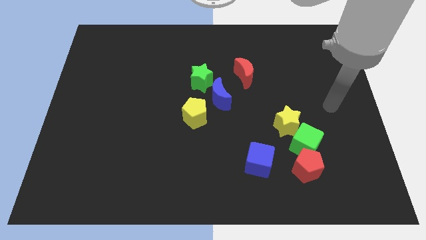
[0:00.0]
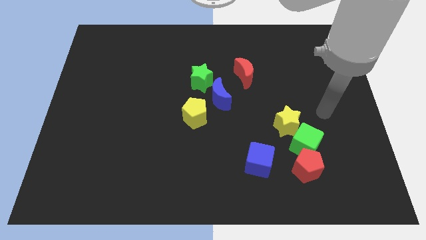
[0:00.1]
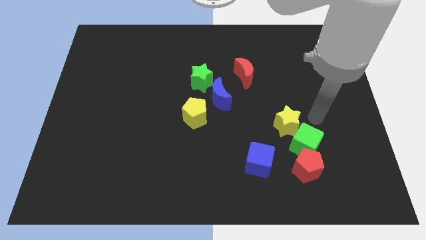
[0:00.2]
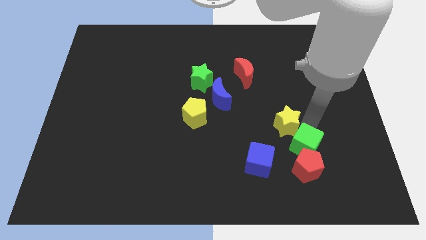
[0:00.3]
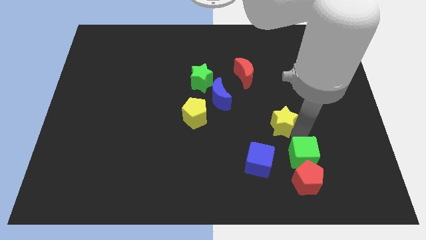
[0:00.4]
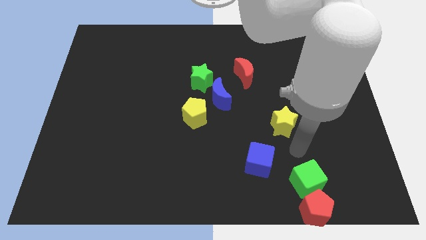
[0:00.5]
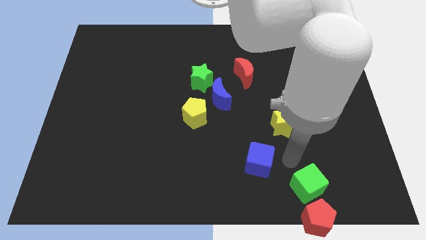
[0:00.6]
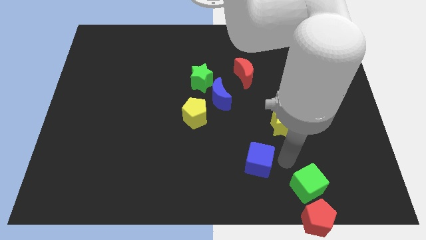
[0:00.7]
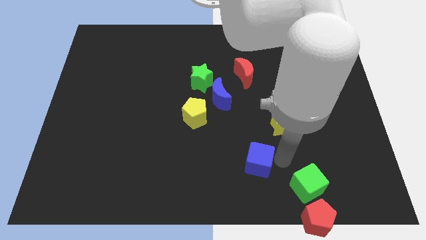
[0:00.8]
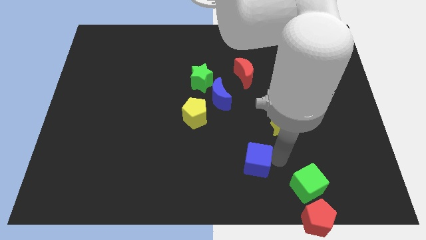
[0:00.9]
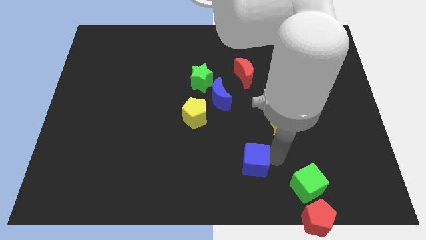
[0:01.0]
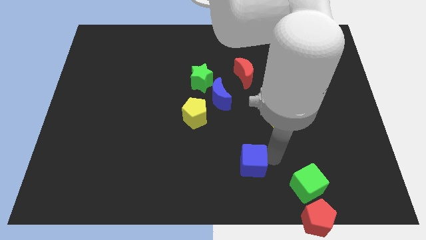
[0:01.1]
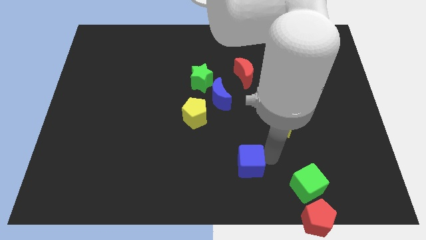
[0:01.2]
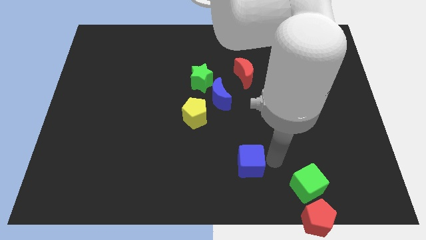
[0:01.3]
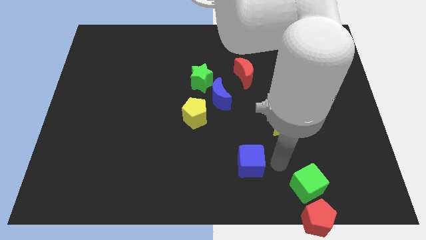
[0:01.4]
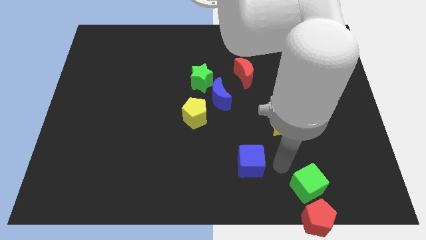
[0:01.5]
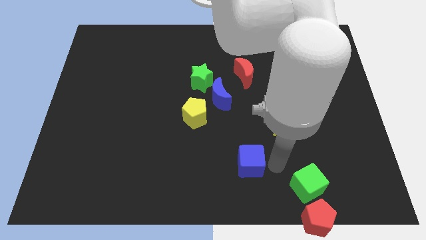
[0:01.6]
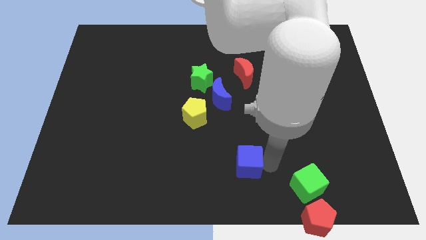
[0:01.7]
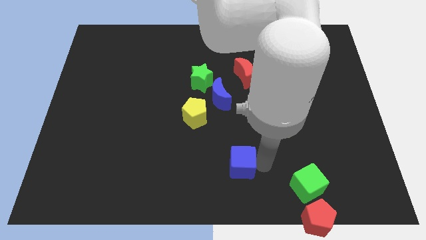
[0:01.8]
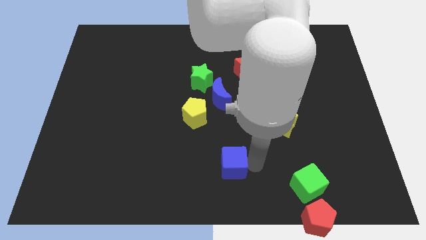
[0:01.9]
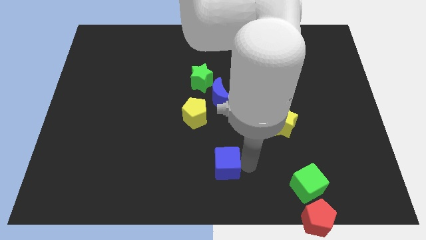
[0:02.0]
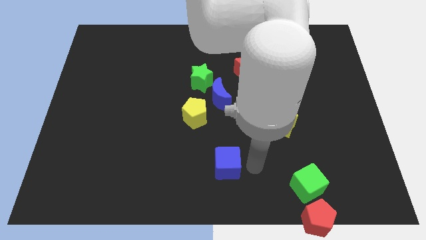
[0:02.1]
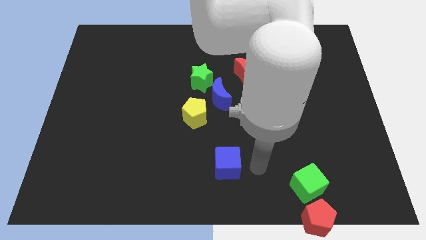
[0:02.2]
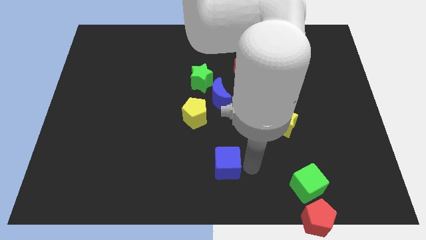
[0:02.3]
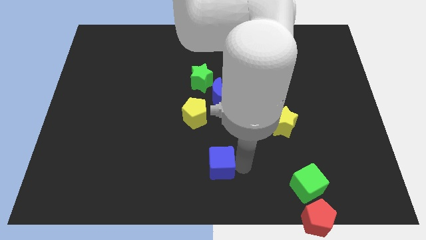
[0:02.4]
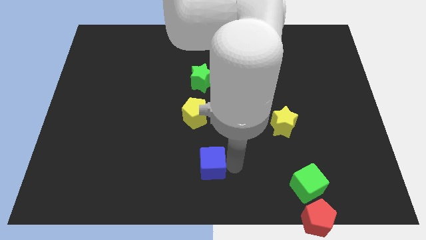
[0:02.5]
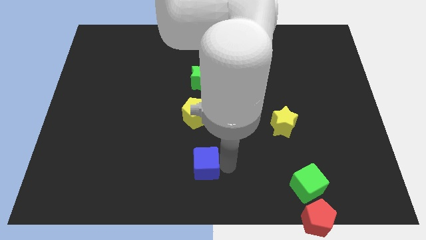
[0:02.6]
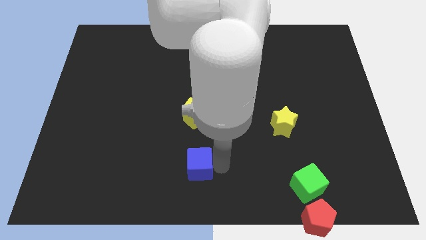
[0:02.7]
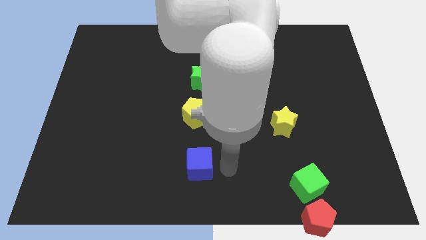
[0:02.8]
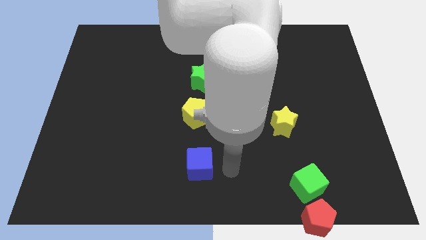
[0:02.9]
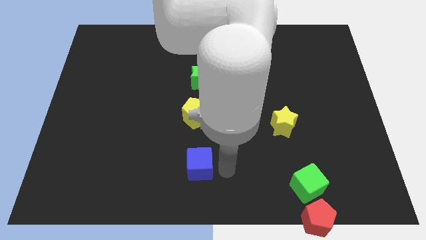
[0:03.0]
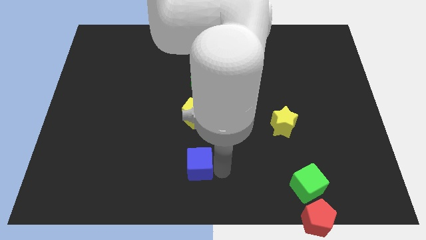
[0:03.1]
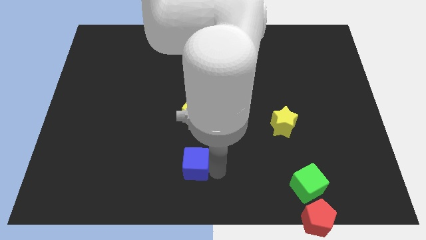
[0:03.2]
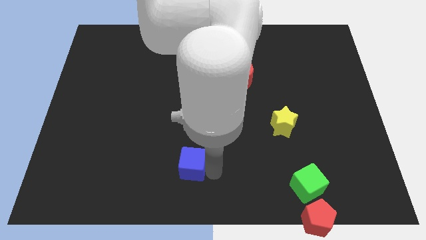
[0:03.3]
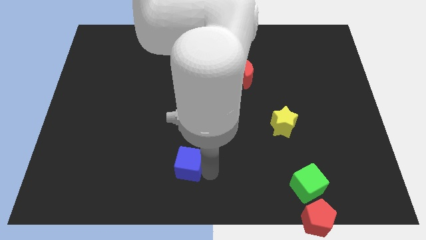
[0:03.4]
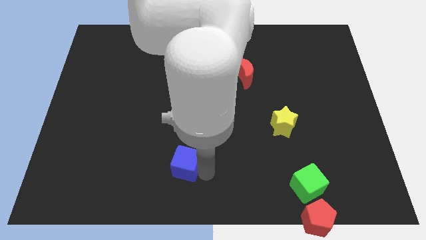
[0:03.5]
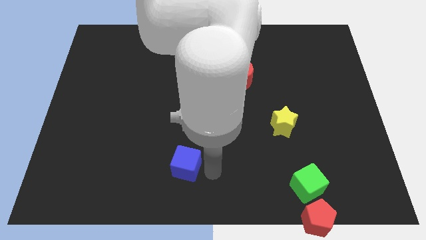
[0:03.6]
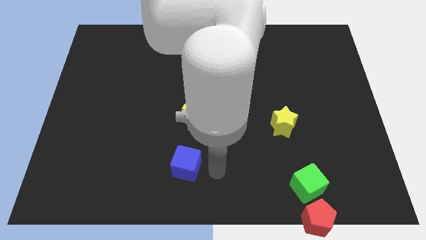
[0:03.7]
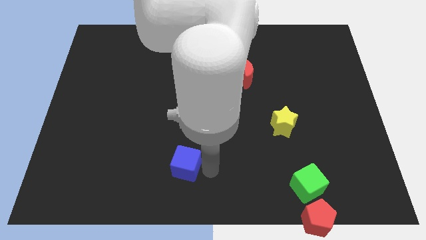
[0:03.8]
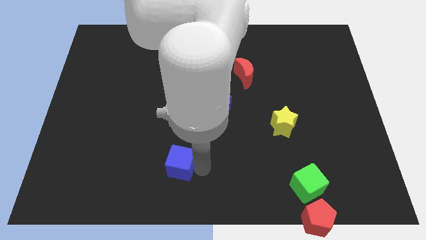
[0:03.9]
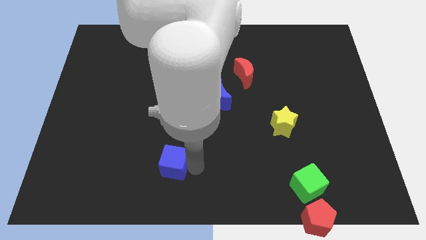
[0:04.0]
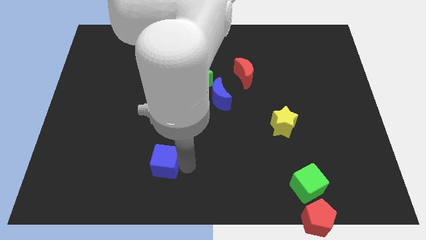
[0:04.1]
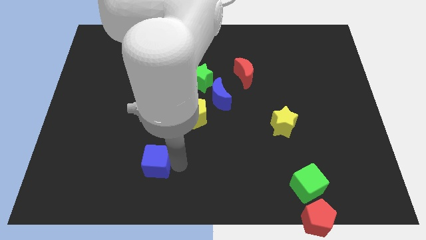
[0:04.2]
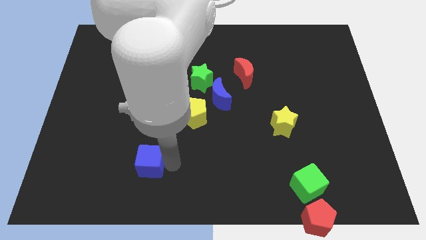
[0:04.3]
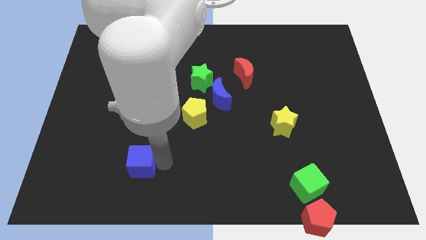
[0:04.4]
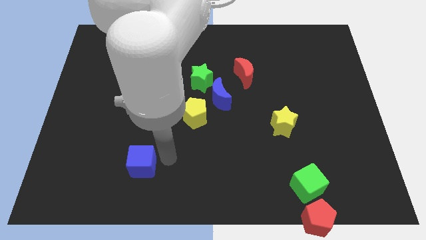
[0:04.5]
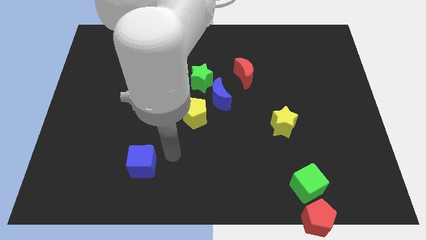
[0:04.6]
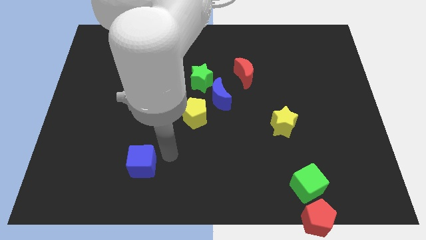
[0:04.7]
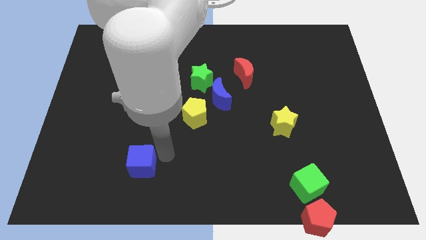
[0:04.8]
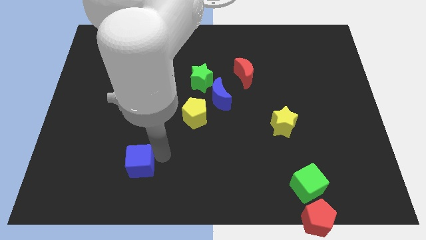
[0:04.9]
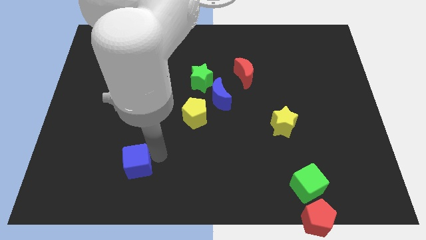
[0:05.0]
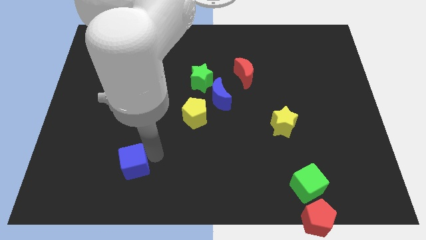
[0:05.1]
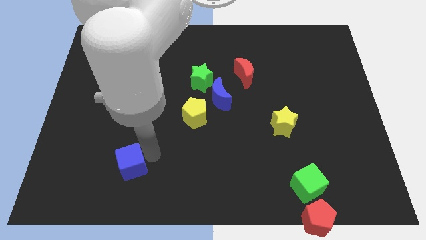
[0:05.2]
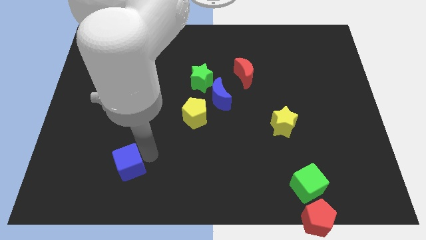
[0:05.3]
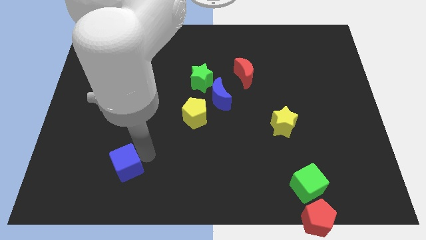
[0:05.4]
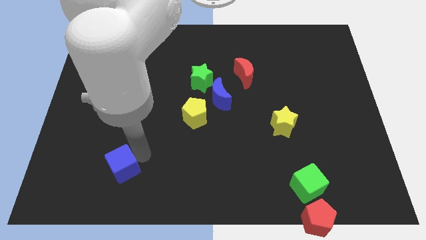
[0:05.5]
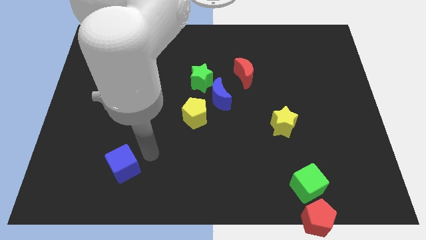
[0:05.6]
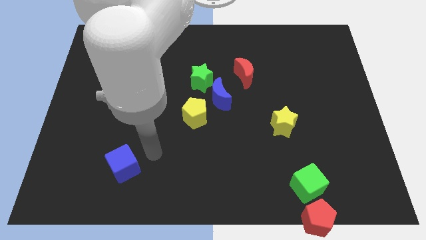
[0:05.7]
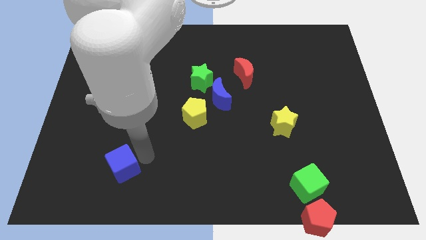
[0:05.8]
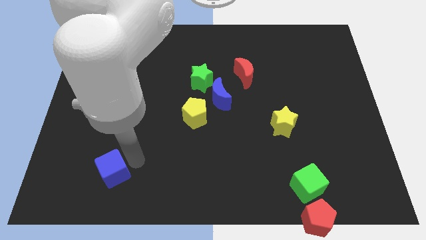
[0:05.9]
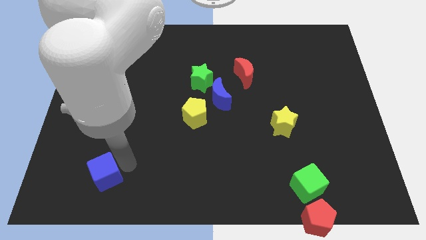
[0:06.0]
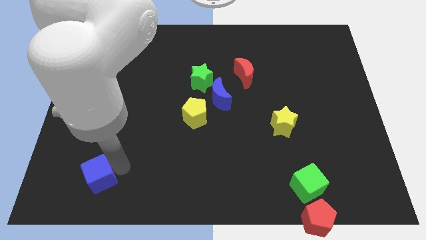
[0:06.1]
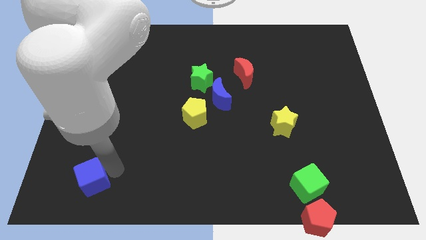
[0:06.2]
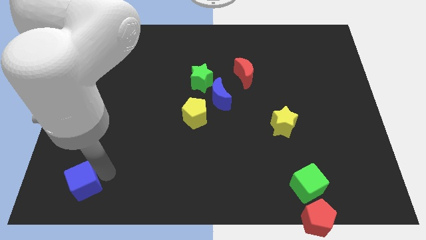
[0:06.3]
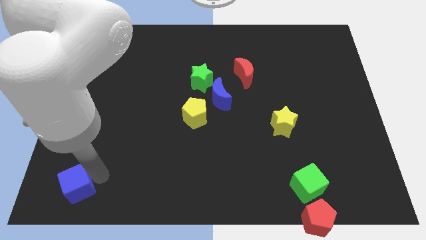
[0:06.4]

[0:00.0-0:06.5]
push the blue cube to the bottom left corner

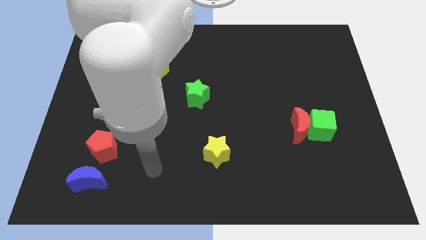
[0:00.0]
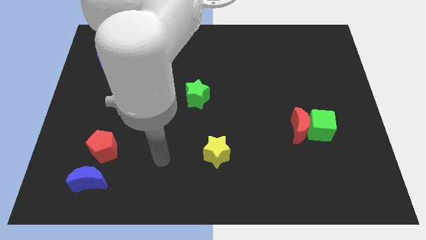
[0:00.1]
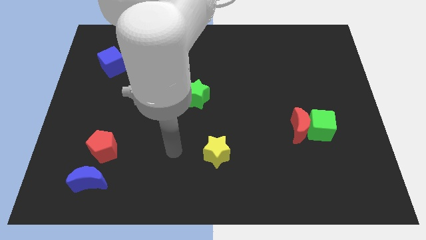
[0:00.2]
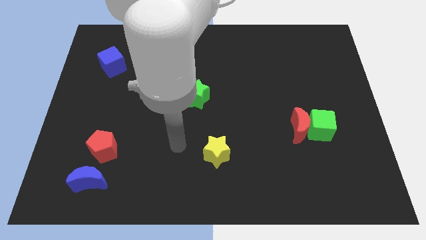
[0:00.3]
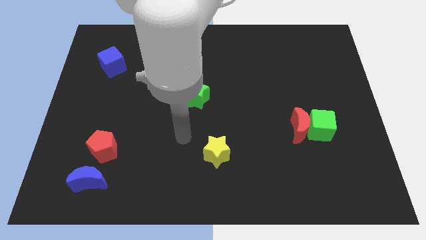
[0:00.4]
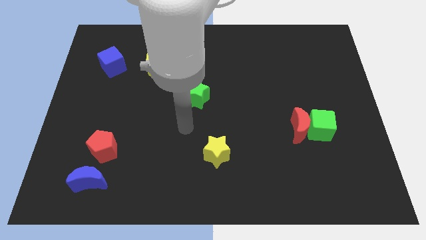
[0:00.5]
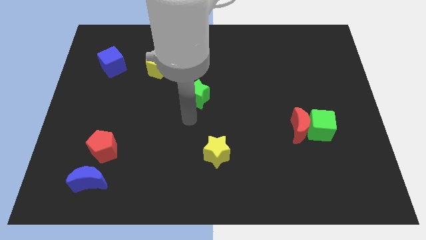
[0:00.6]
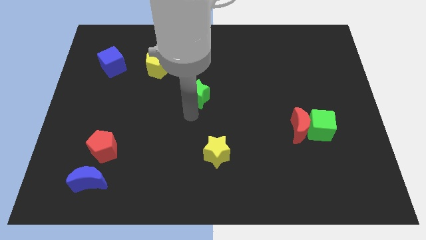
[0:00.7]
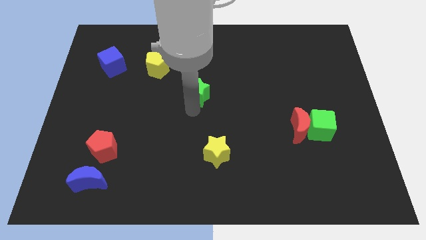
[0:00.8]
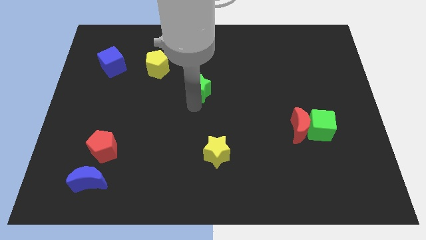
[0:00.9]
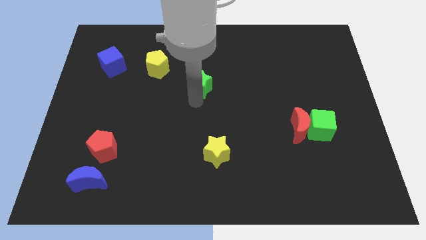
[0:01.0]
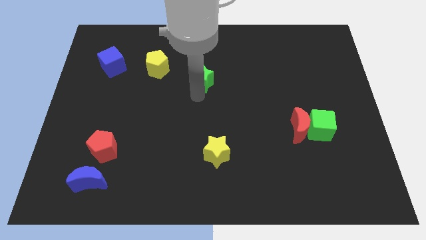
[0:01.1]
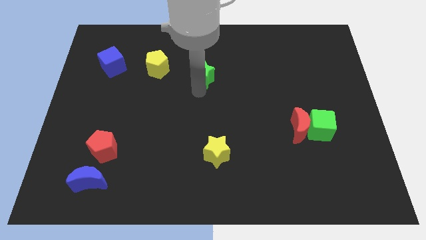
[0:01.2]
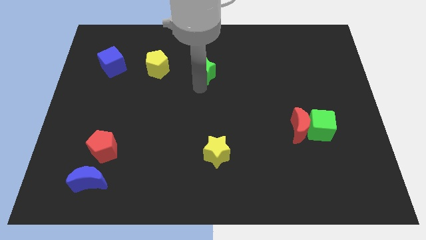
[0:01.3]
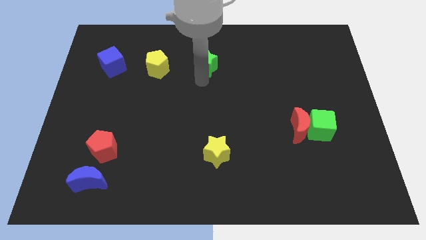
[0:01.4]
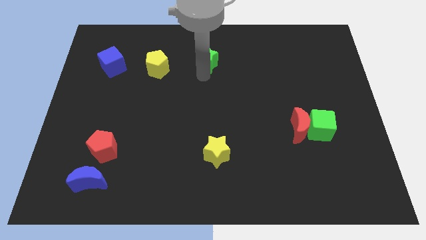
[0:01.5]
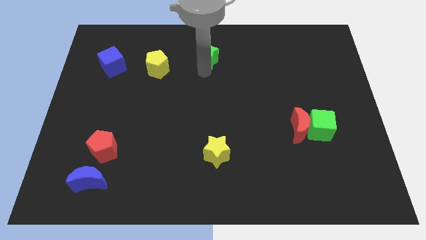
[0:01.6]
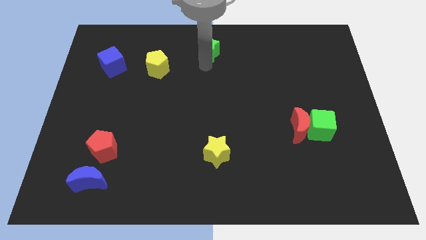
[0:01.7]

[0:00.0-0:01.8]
slide the green star to the top side
